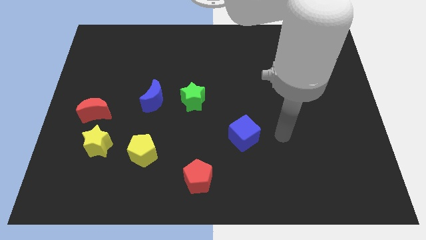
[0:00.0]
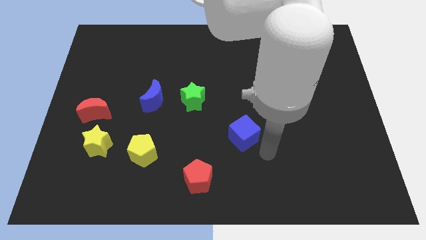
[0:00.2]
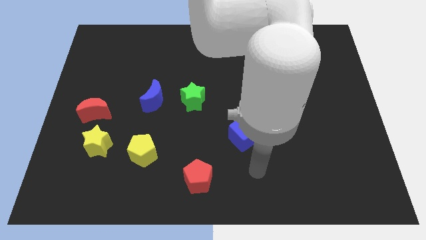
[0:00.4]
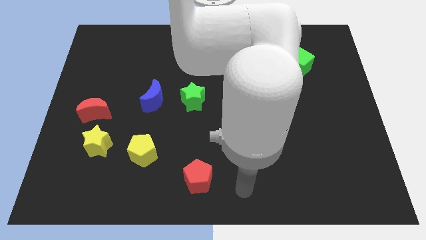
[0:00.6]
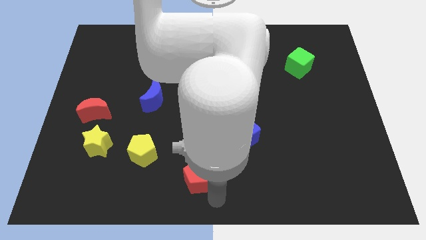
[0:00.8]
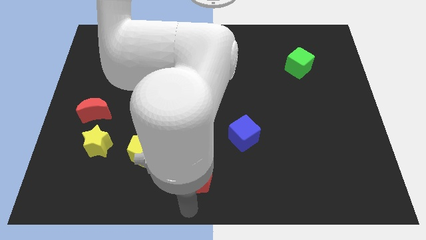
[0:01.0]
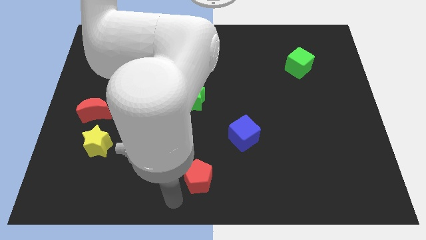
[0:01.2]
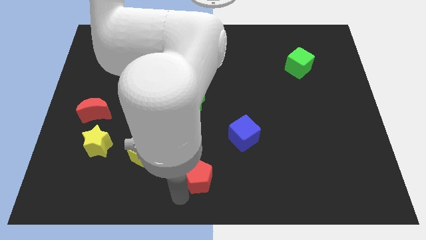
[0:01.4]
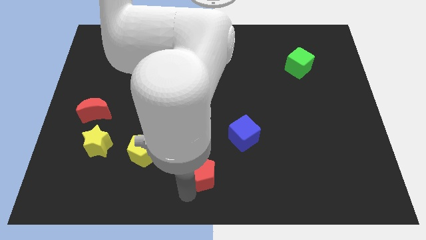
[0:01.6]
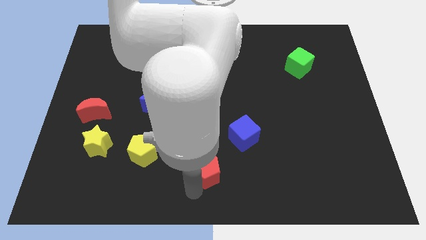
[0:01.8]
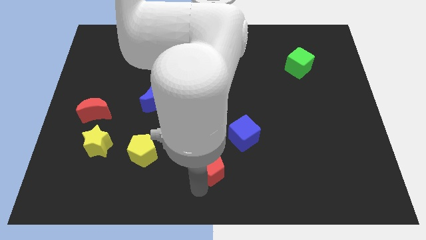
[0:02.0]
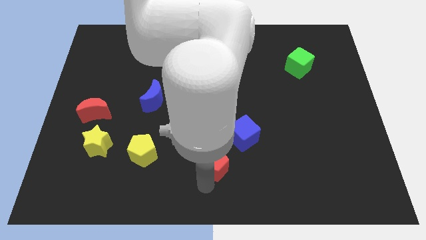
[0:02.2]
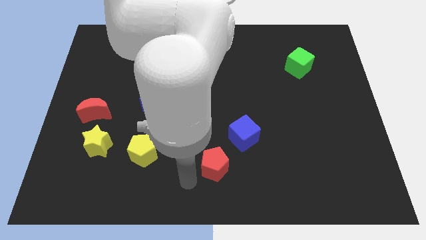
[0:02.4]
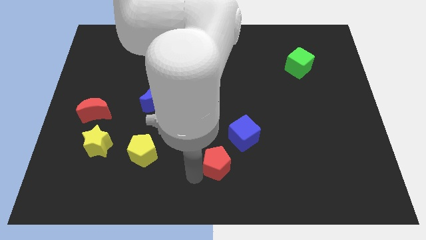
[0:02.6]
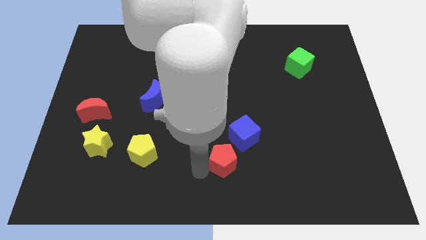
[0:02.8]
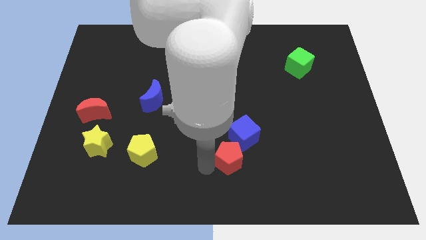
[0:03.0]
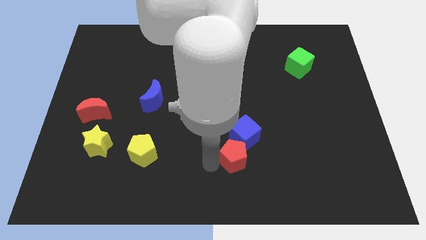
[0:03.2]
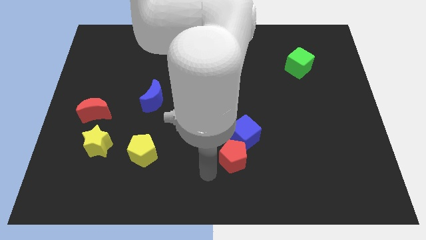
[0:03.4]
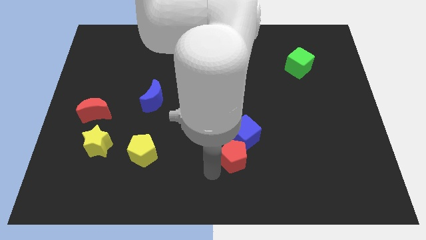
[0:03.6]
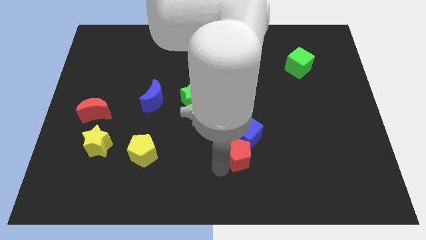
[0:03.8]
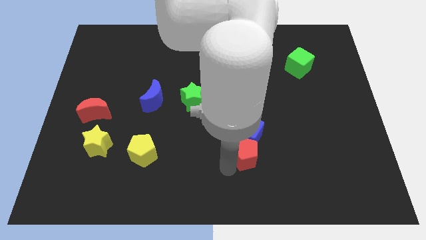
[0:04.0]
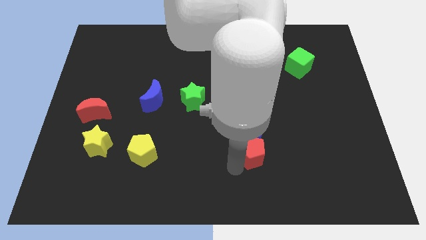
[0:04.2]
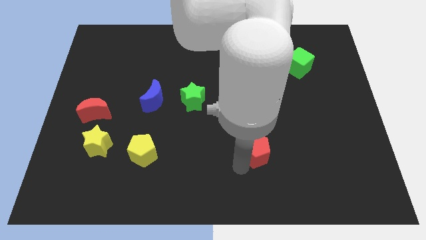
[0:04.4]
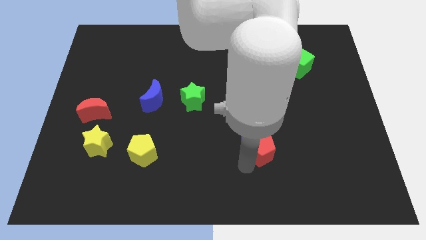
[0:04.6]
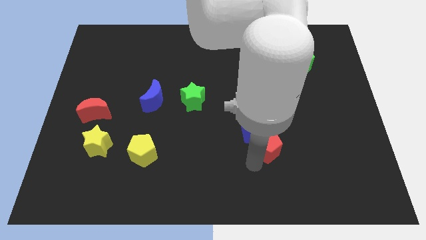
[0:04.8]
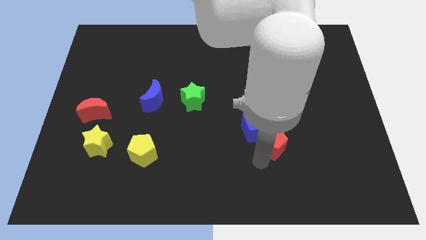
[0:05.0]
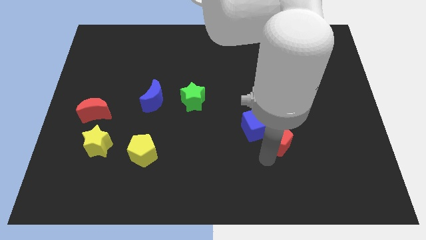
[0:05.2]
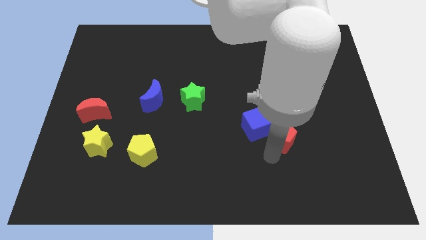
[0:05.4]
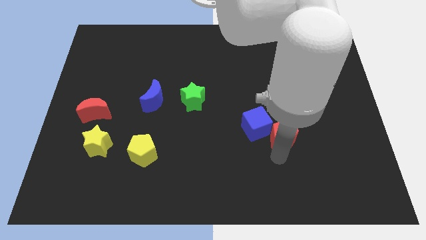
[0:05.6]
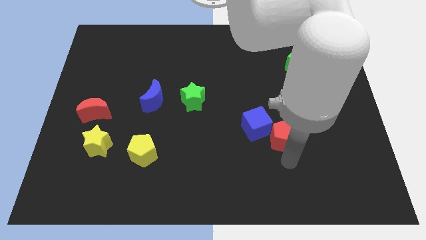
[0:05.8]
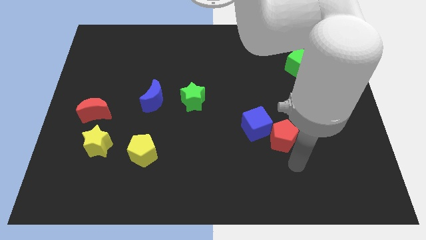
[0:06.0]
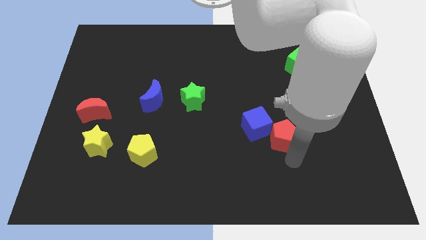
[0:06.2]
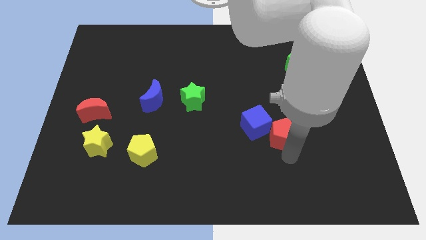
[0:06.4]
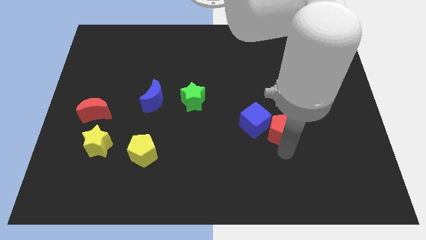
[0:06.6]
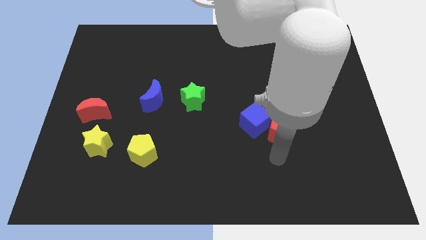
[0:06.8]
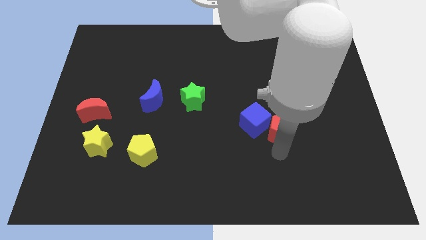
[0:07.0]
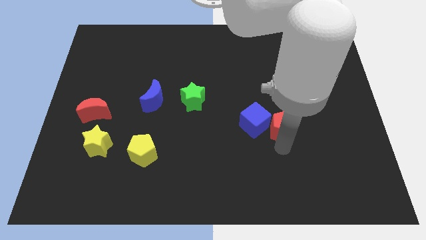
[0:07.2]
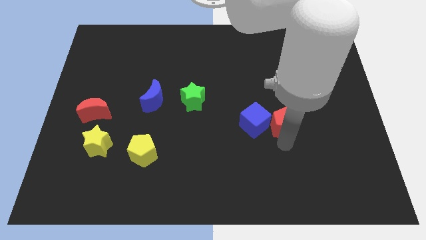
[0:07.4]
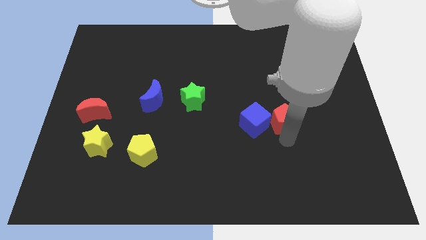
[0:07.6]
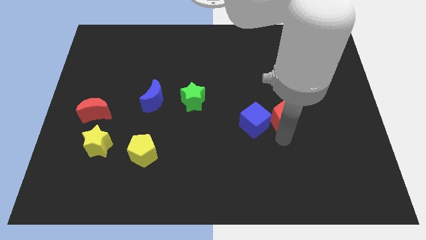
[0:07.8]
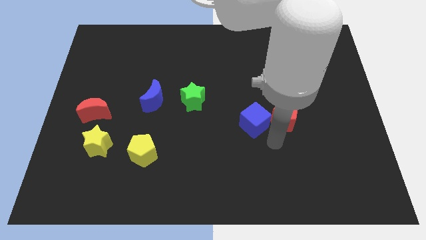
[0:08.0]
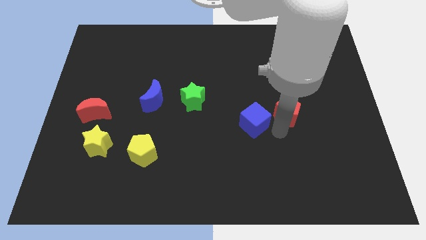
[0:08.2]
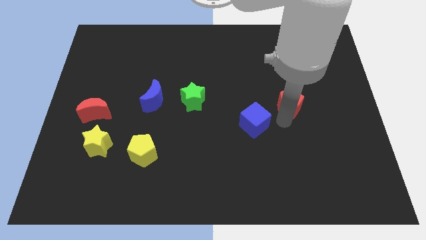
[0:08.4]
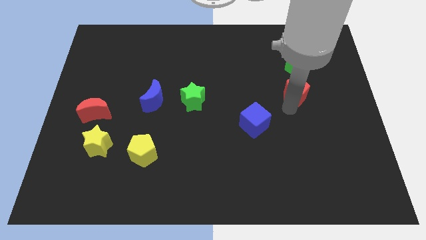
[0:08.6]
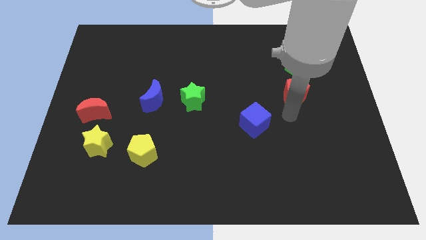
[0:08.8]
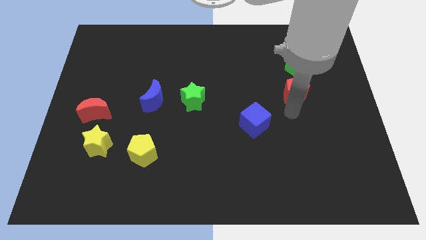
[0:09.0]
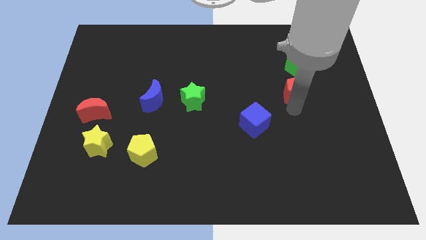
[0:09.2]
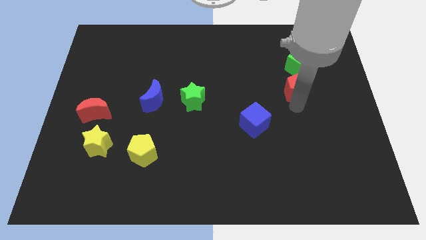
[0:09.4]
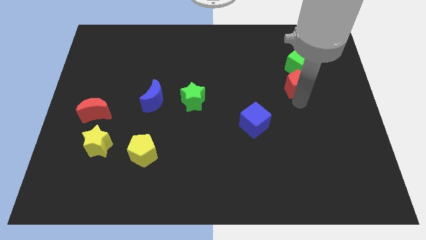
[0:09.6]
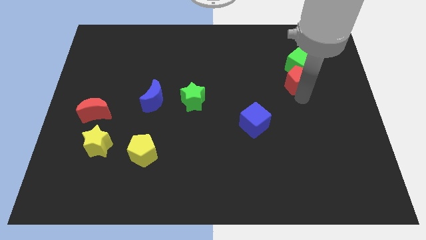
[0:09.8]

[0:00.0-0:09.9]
put the red pentagon next to the green cube
